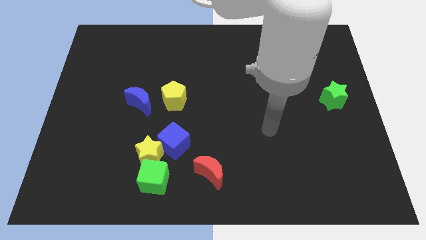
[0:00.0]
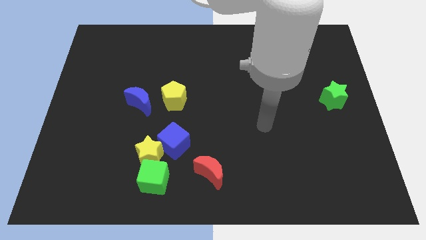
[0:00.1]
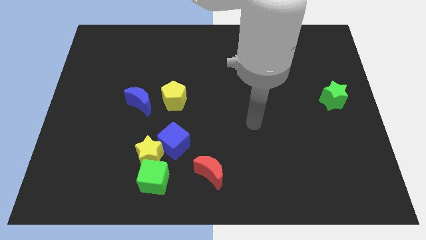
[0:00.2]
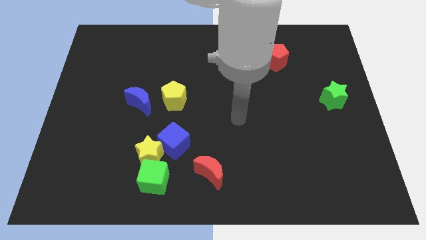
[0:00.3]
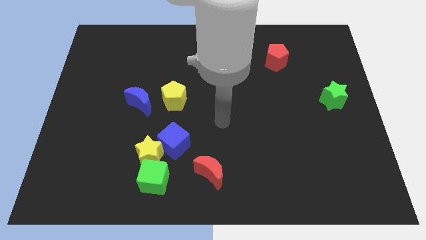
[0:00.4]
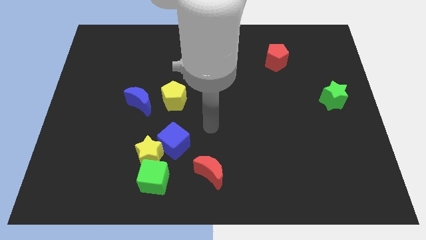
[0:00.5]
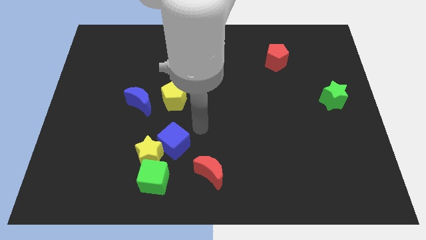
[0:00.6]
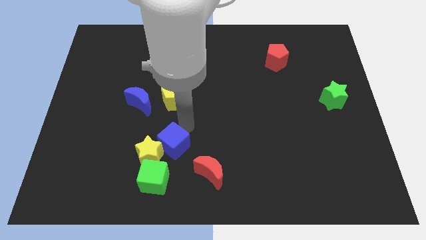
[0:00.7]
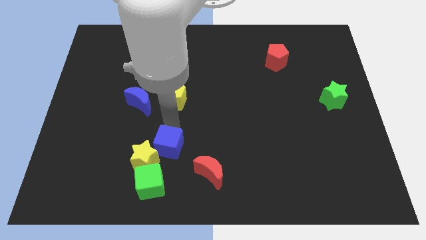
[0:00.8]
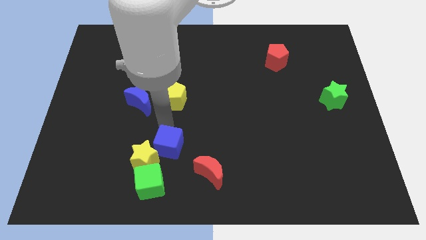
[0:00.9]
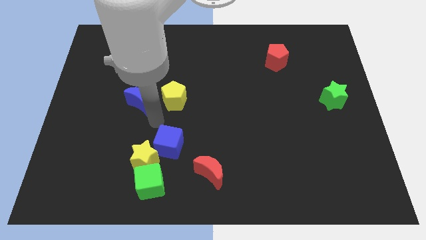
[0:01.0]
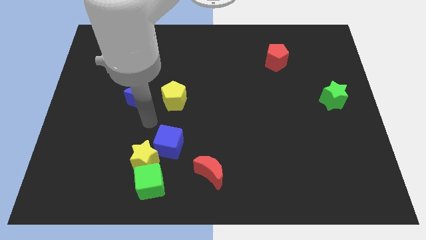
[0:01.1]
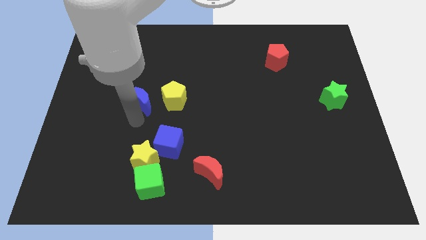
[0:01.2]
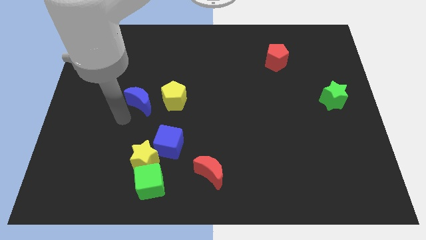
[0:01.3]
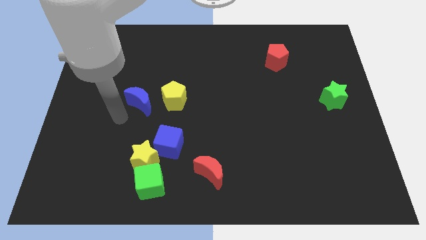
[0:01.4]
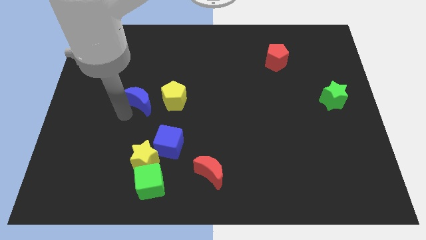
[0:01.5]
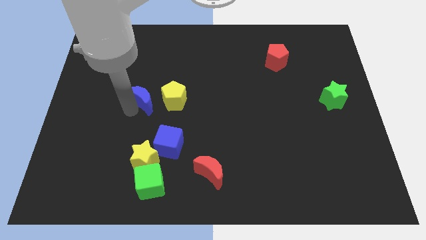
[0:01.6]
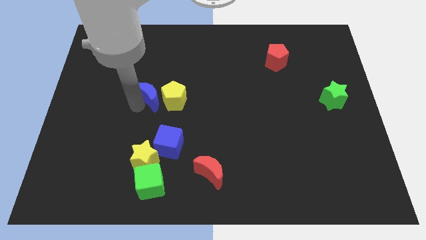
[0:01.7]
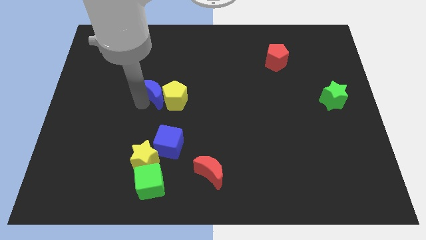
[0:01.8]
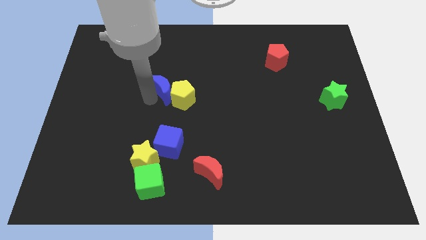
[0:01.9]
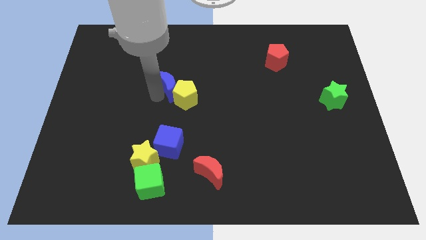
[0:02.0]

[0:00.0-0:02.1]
slide the blue moon upwards and right a little

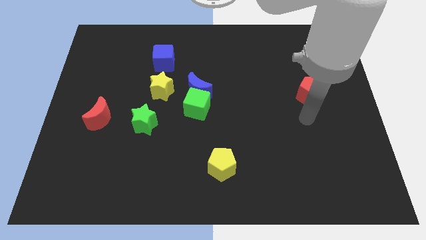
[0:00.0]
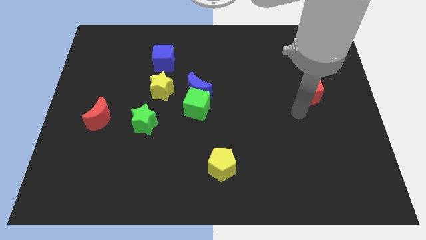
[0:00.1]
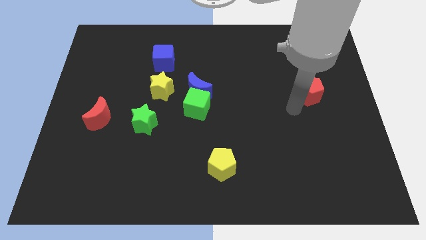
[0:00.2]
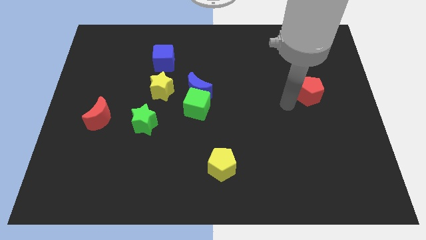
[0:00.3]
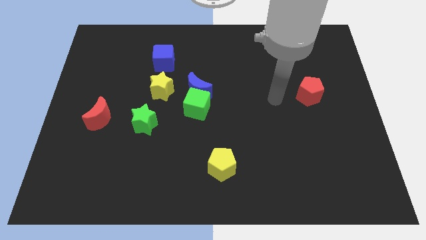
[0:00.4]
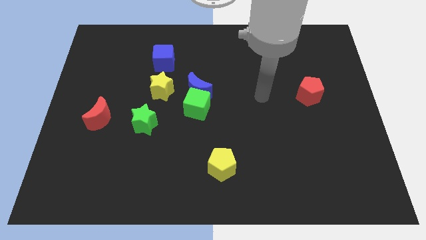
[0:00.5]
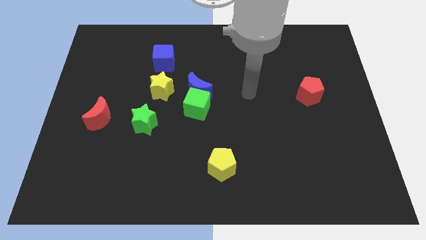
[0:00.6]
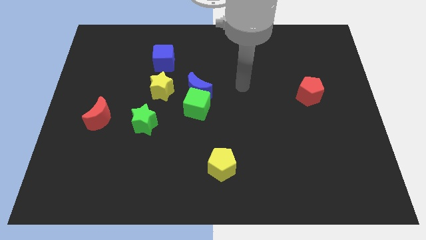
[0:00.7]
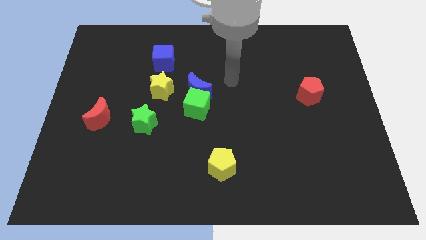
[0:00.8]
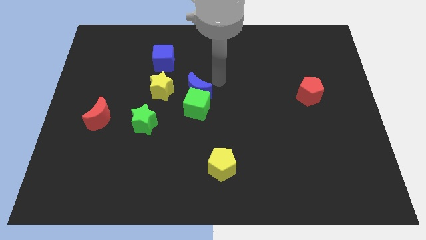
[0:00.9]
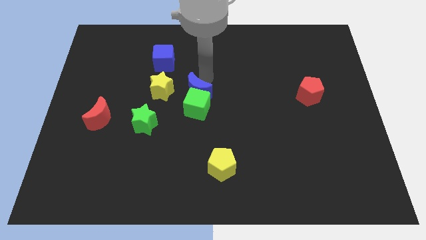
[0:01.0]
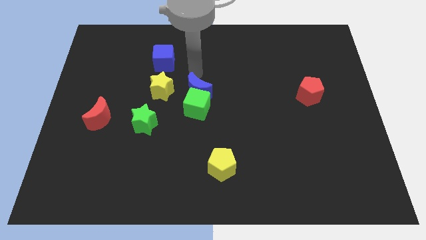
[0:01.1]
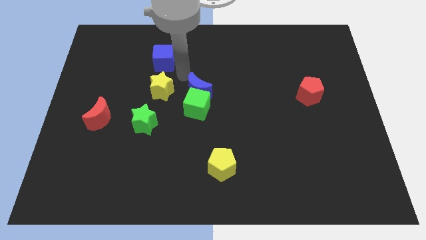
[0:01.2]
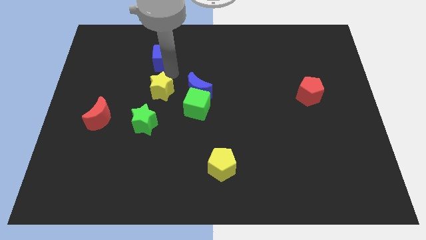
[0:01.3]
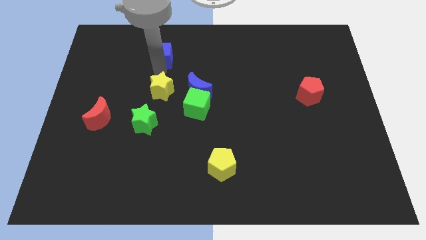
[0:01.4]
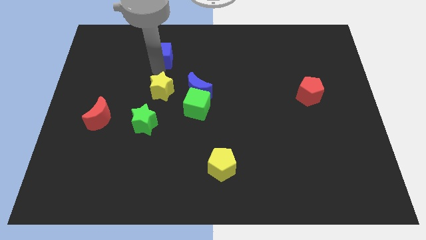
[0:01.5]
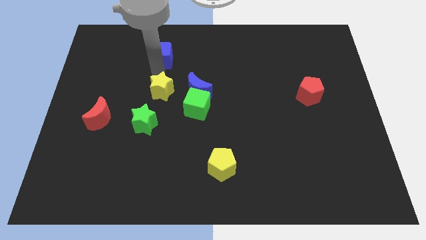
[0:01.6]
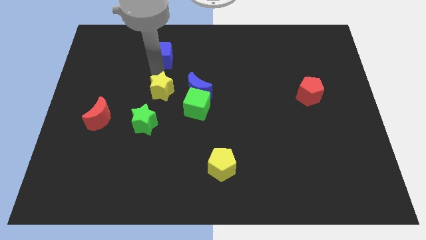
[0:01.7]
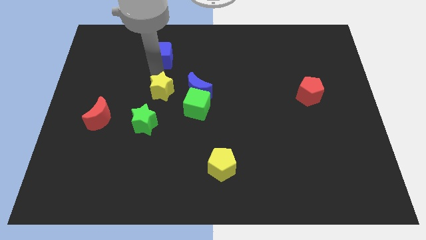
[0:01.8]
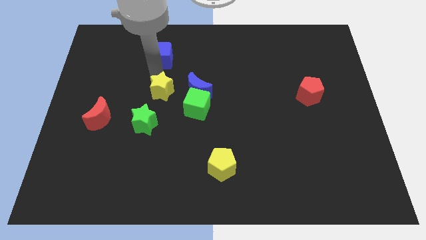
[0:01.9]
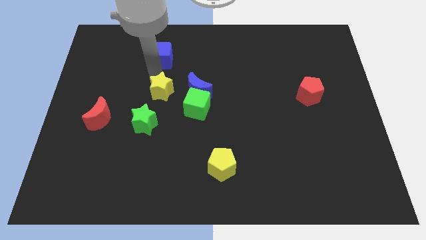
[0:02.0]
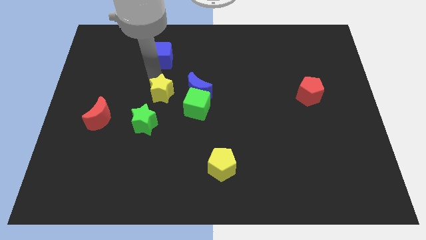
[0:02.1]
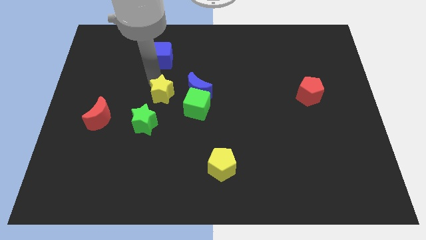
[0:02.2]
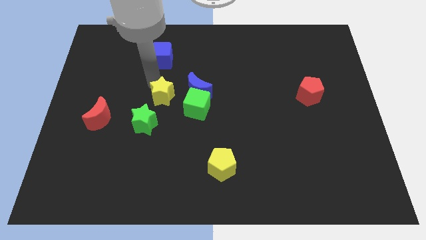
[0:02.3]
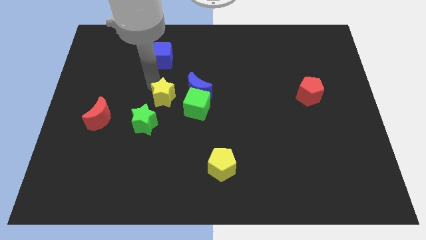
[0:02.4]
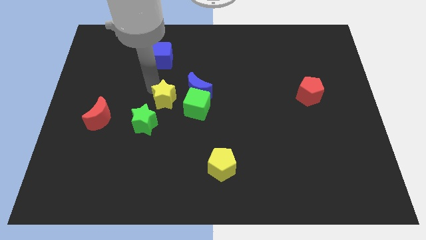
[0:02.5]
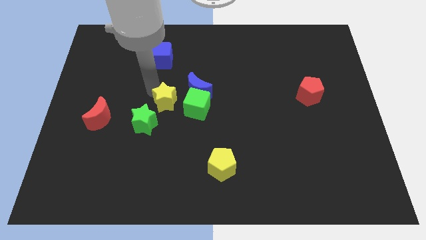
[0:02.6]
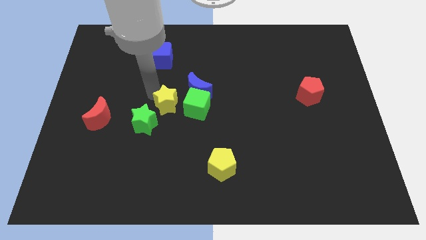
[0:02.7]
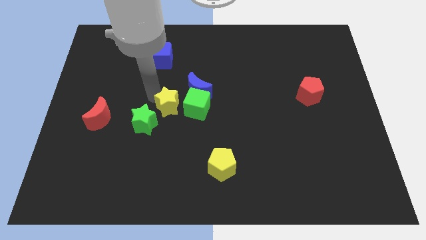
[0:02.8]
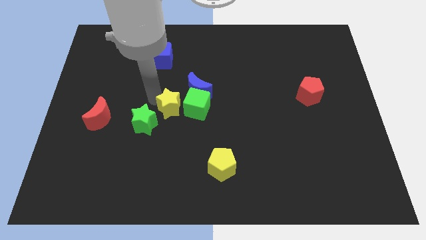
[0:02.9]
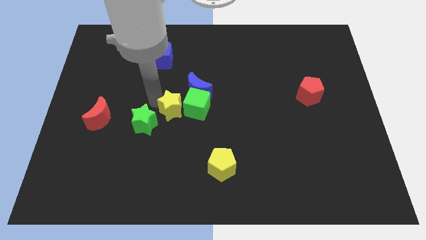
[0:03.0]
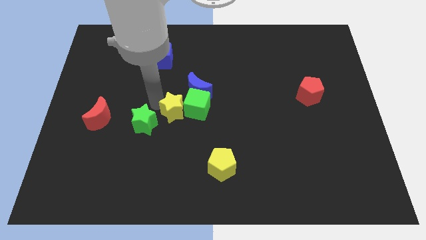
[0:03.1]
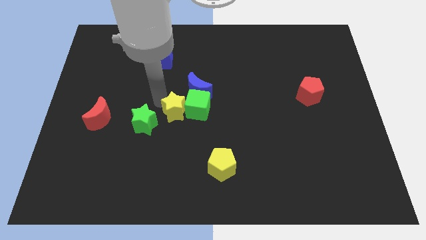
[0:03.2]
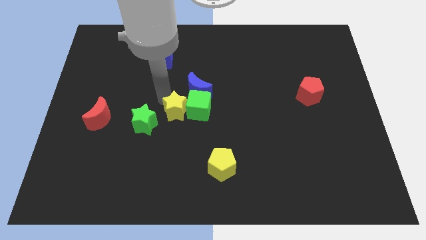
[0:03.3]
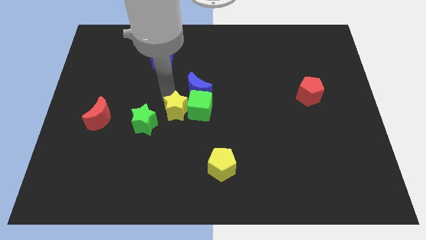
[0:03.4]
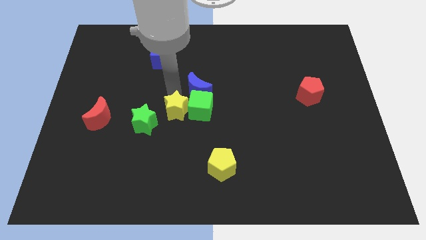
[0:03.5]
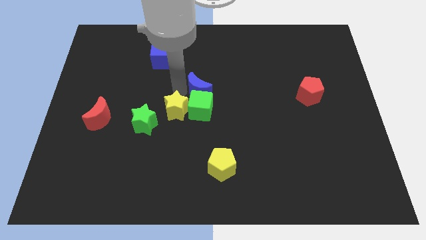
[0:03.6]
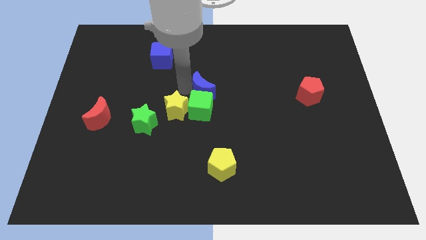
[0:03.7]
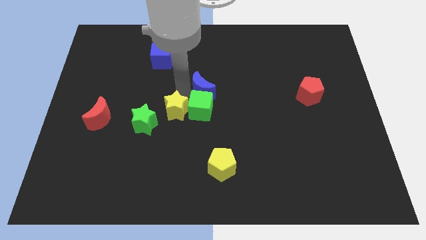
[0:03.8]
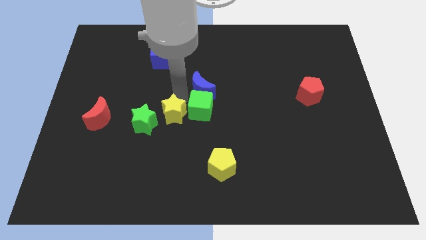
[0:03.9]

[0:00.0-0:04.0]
slightly move the yellow star downwards

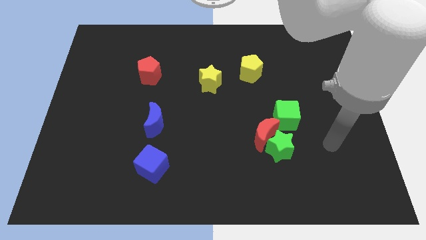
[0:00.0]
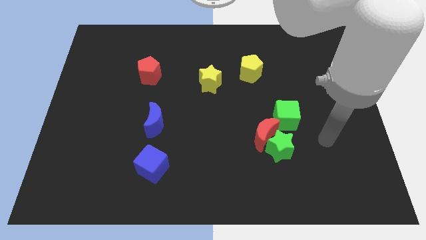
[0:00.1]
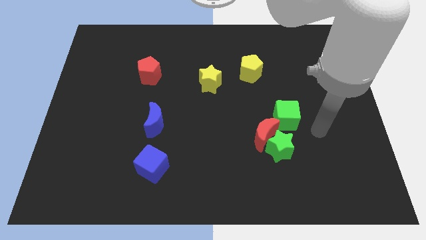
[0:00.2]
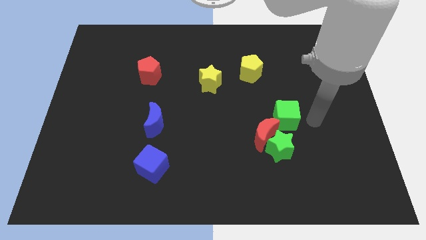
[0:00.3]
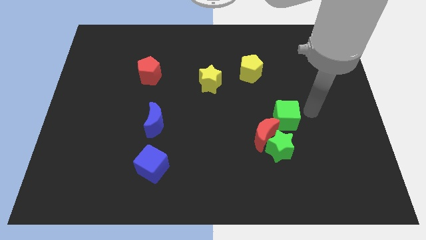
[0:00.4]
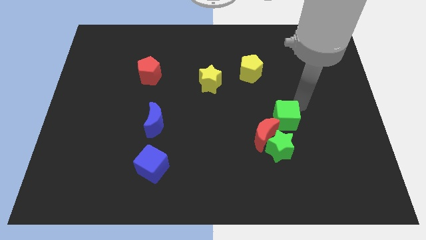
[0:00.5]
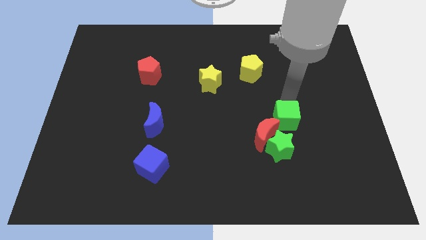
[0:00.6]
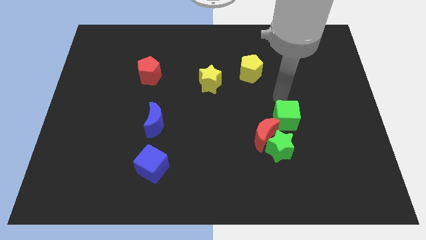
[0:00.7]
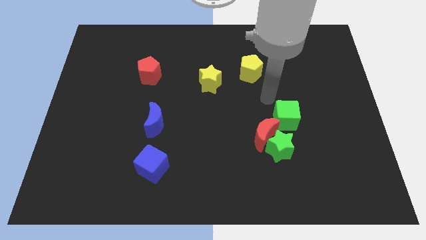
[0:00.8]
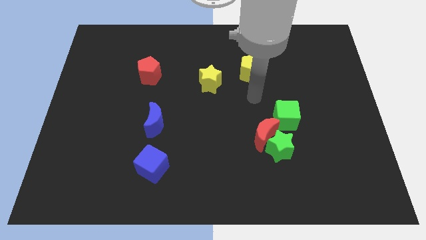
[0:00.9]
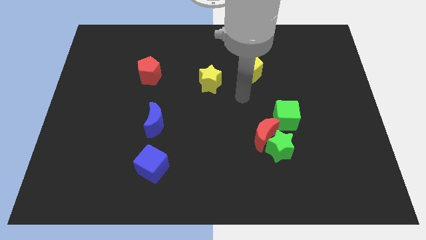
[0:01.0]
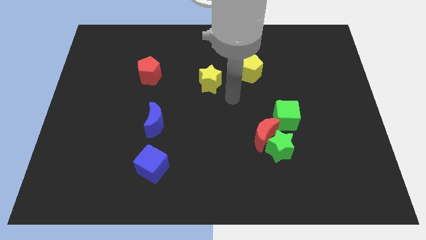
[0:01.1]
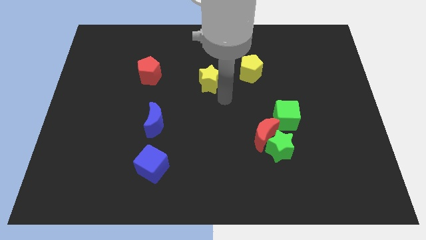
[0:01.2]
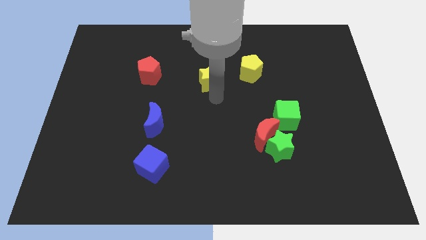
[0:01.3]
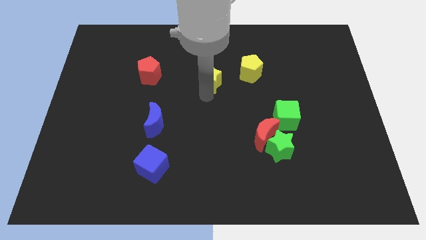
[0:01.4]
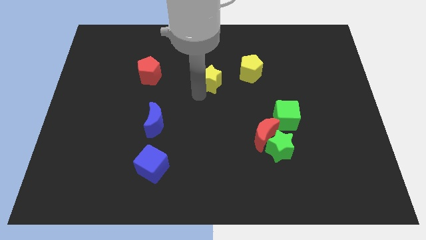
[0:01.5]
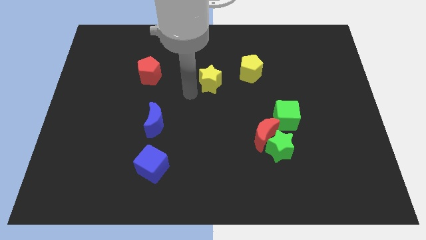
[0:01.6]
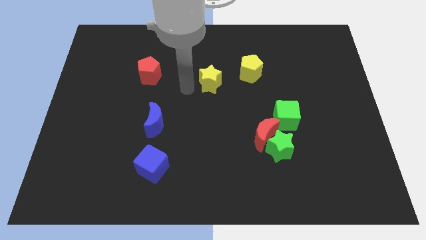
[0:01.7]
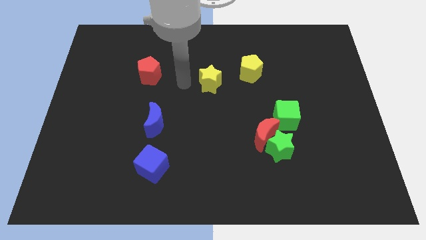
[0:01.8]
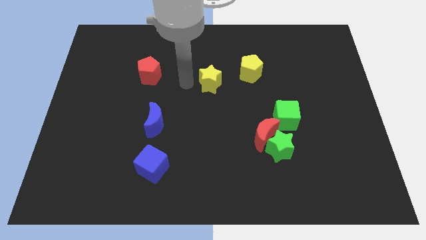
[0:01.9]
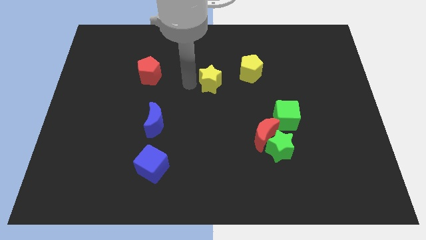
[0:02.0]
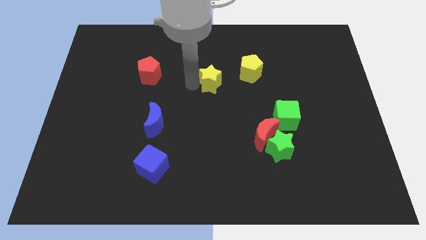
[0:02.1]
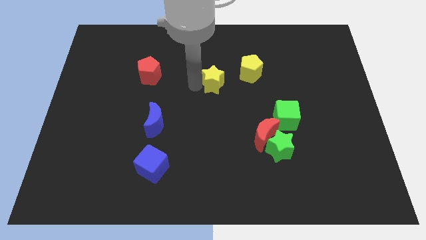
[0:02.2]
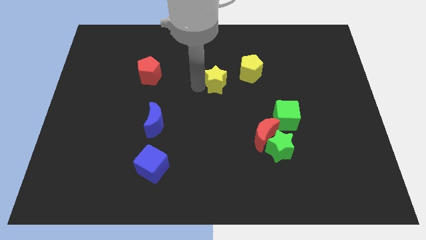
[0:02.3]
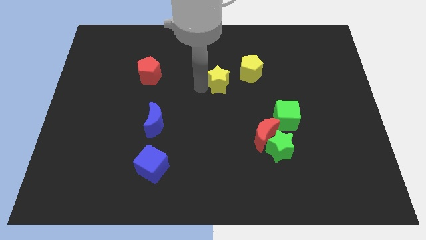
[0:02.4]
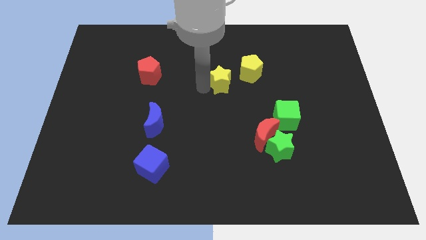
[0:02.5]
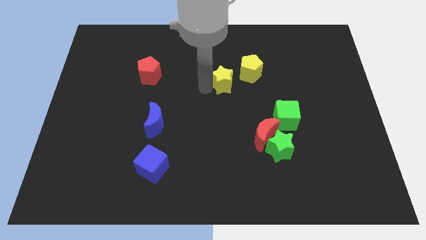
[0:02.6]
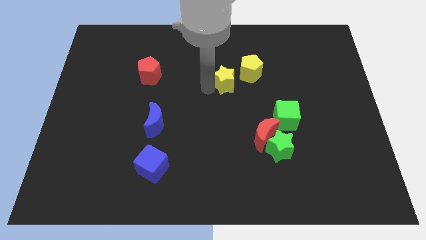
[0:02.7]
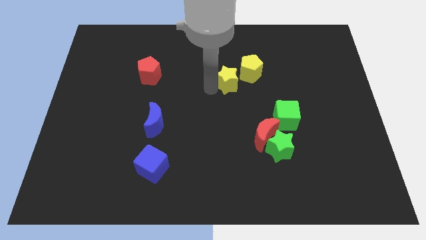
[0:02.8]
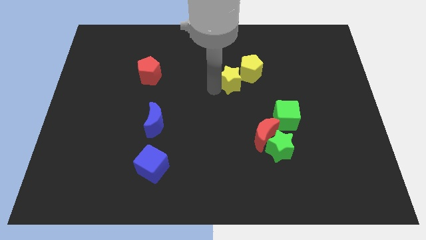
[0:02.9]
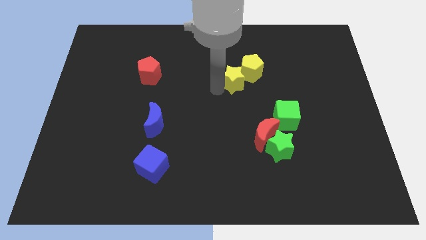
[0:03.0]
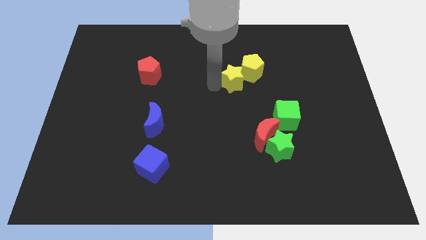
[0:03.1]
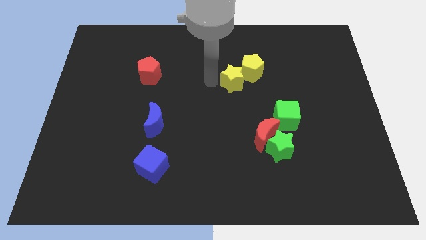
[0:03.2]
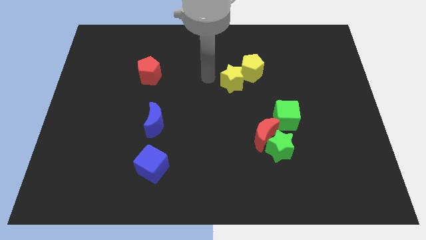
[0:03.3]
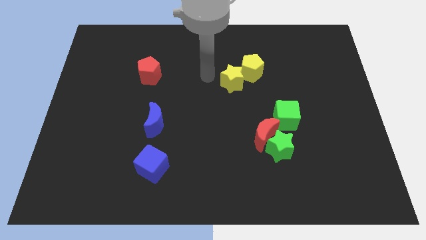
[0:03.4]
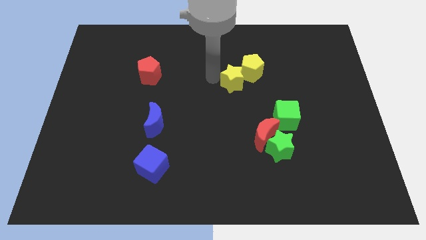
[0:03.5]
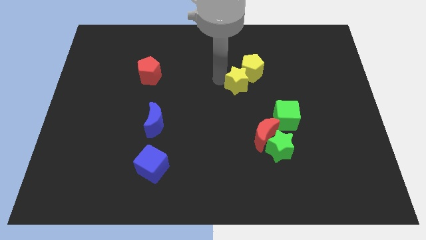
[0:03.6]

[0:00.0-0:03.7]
slightly slide the yellow star right
